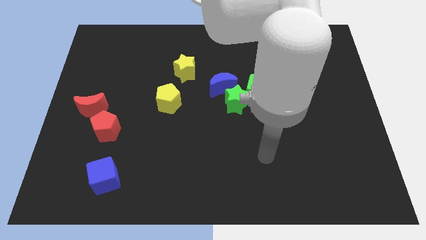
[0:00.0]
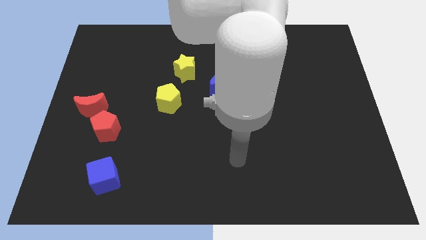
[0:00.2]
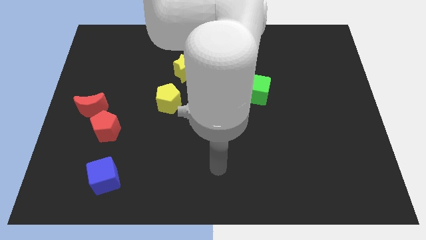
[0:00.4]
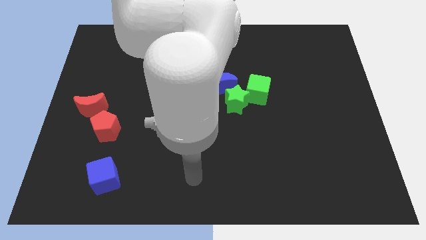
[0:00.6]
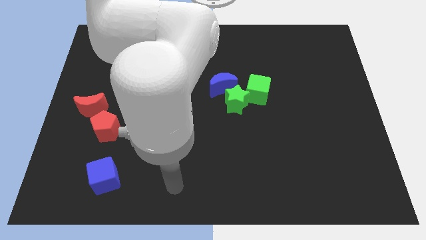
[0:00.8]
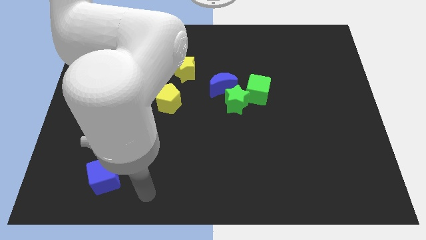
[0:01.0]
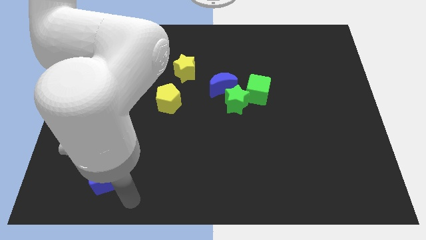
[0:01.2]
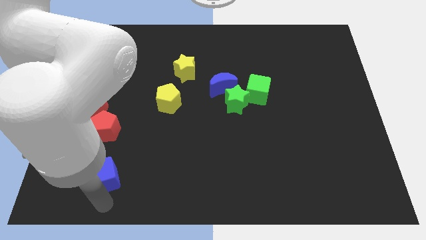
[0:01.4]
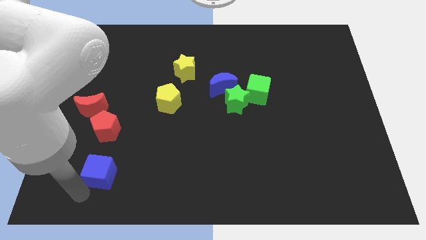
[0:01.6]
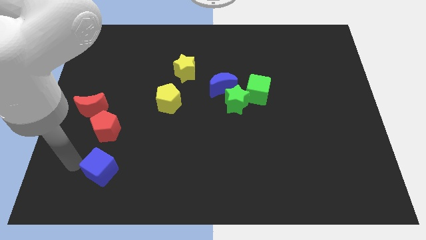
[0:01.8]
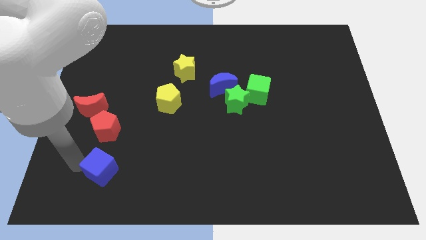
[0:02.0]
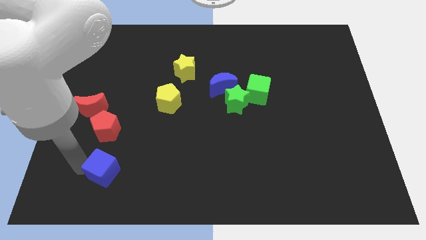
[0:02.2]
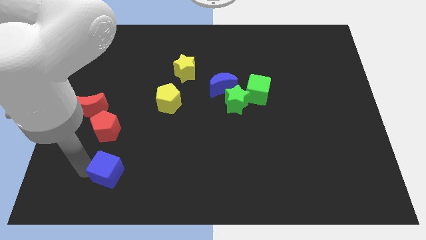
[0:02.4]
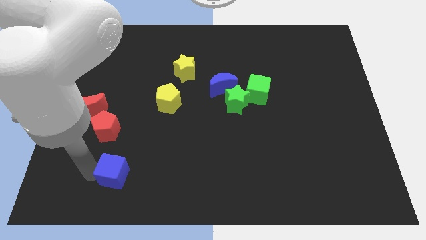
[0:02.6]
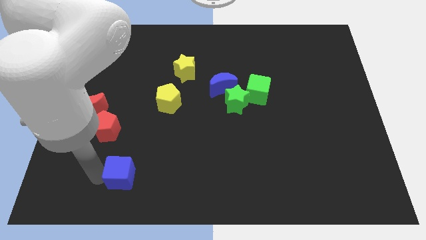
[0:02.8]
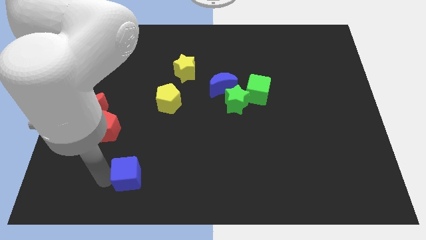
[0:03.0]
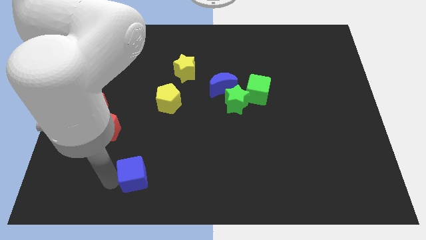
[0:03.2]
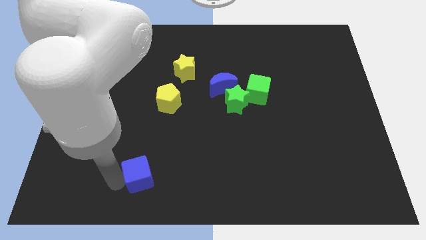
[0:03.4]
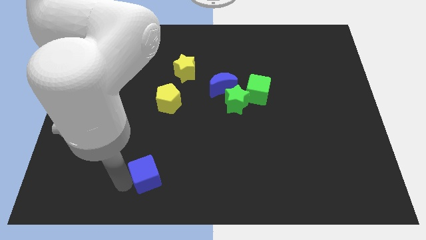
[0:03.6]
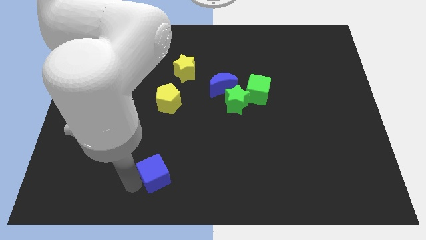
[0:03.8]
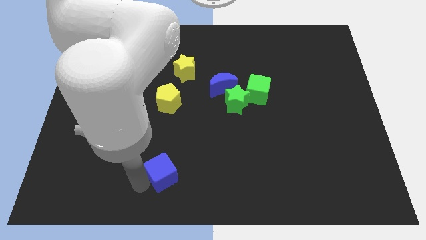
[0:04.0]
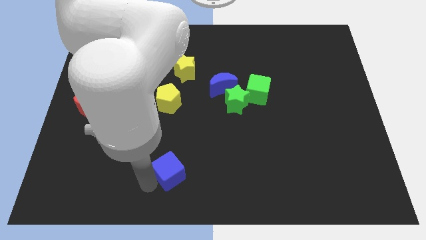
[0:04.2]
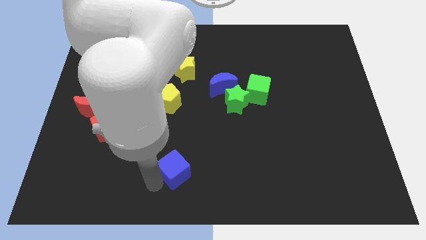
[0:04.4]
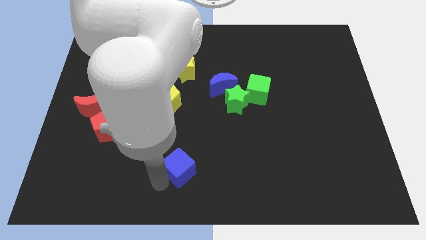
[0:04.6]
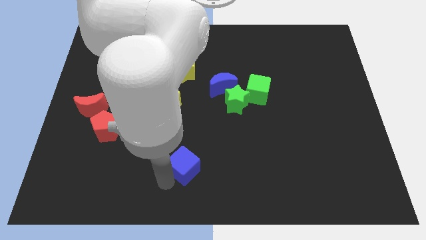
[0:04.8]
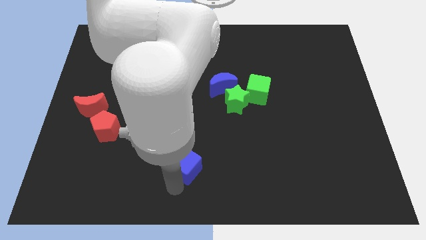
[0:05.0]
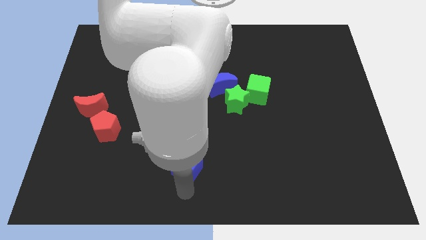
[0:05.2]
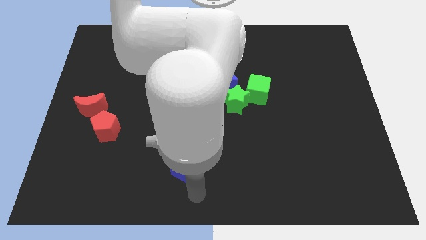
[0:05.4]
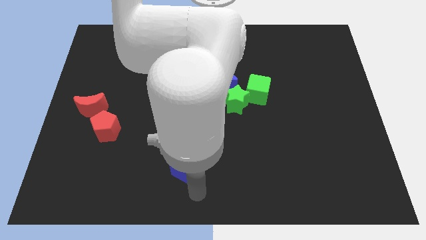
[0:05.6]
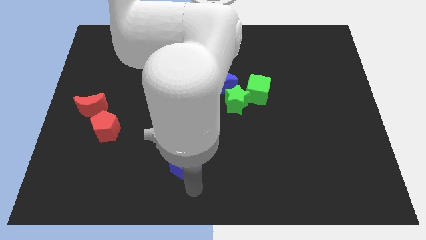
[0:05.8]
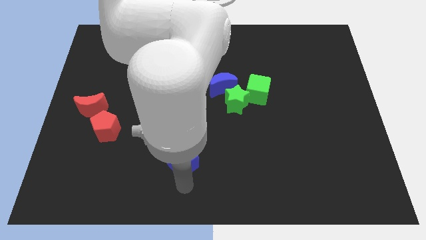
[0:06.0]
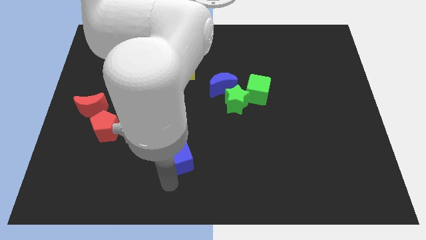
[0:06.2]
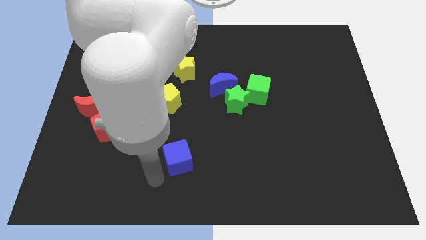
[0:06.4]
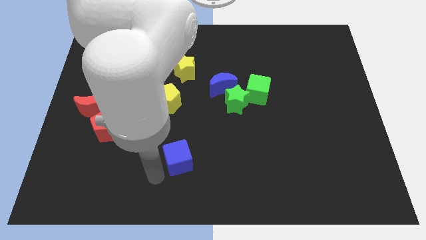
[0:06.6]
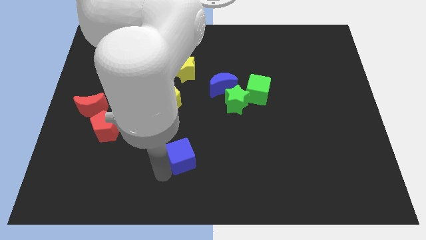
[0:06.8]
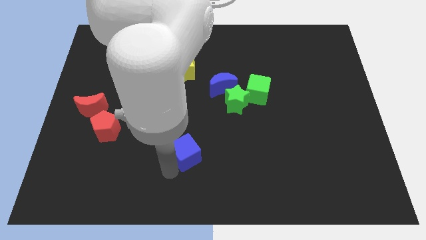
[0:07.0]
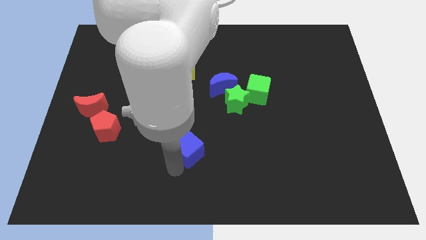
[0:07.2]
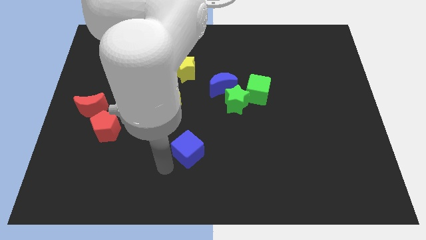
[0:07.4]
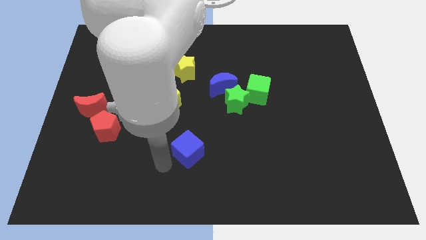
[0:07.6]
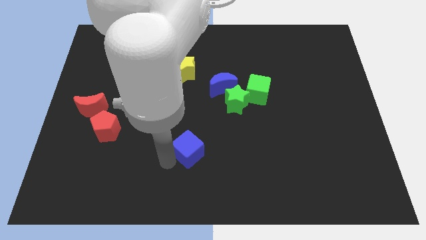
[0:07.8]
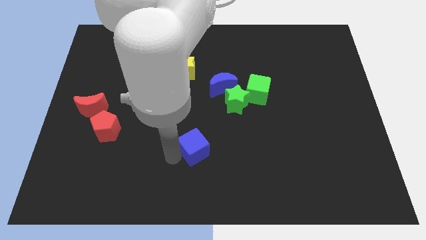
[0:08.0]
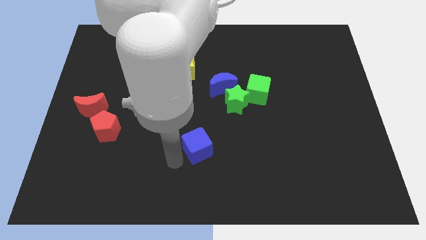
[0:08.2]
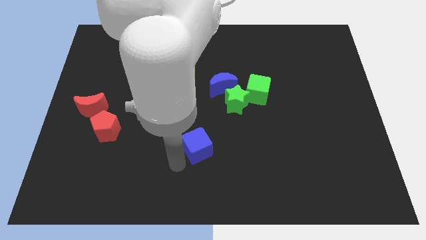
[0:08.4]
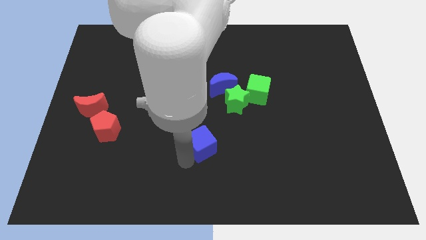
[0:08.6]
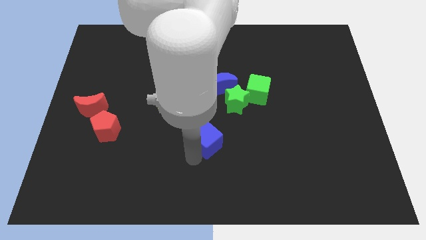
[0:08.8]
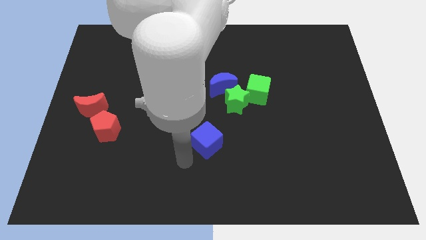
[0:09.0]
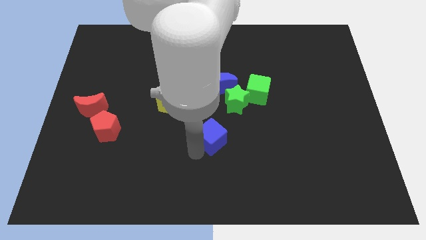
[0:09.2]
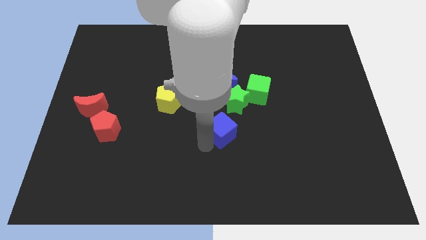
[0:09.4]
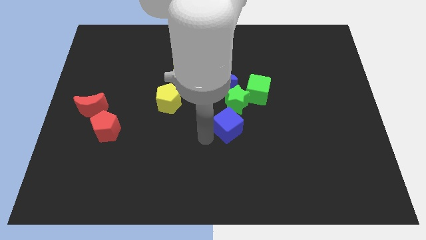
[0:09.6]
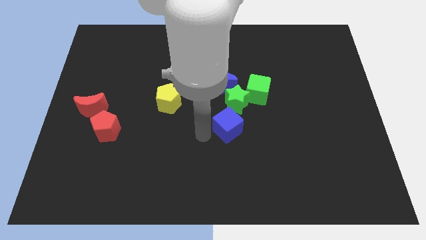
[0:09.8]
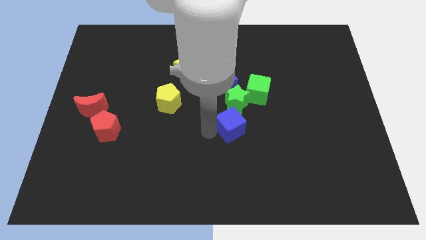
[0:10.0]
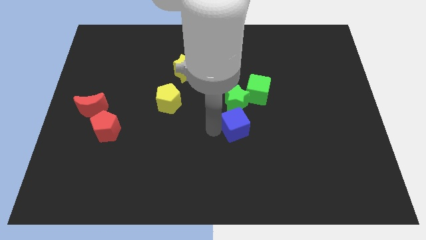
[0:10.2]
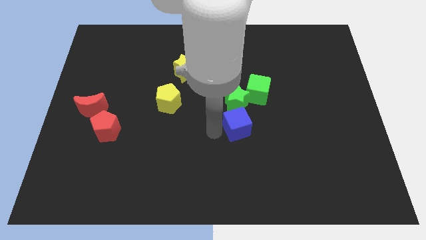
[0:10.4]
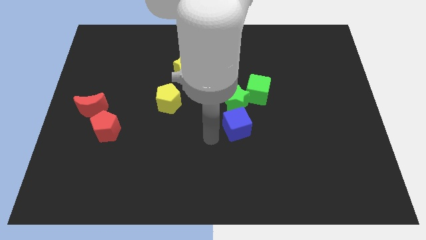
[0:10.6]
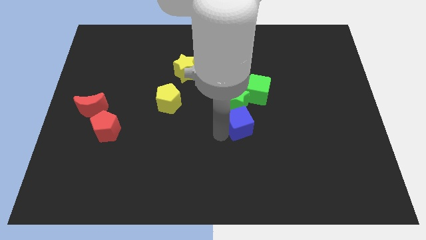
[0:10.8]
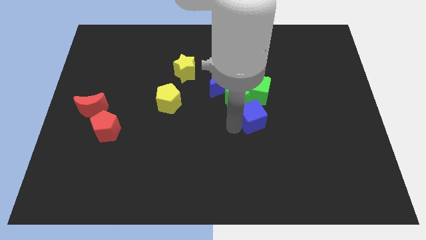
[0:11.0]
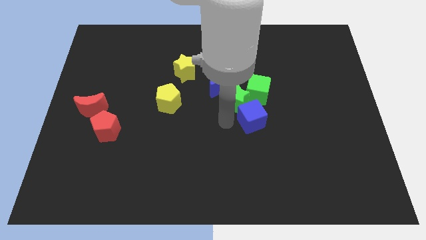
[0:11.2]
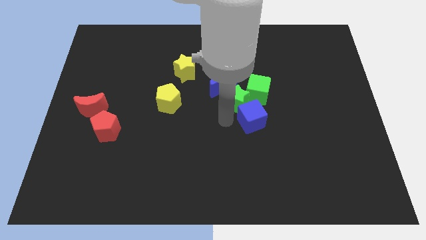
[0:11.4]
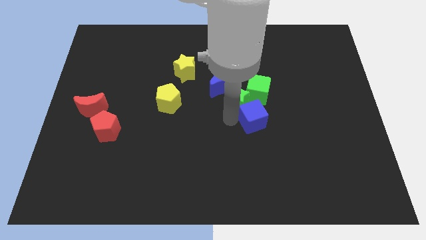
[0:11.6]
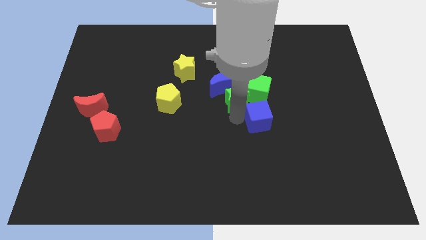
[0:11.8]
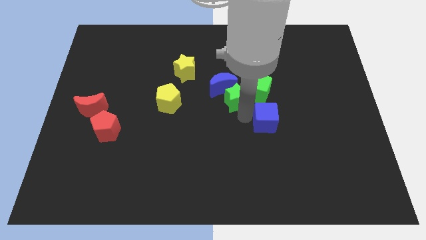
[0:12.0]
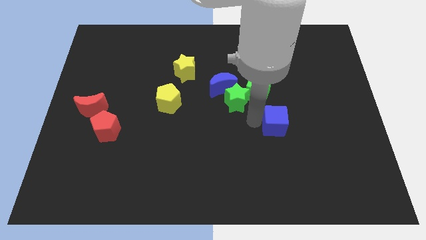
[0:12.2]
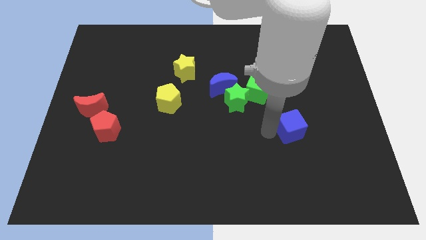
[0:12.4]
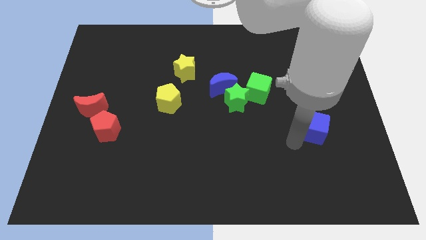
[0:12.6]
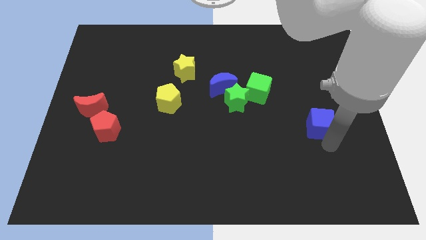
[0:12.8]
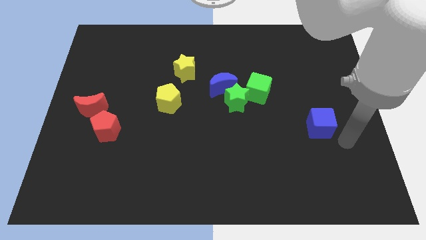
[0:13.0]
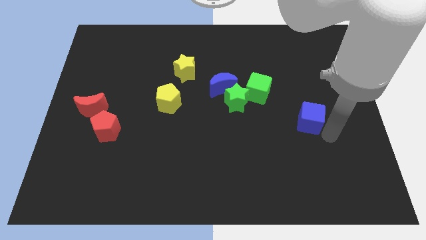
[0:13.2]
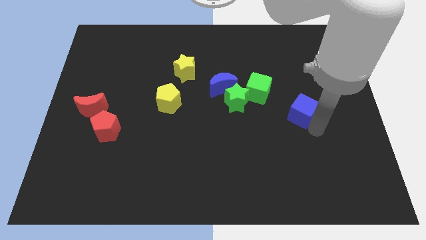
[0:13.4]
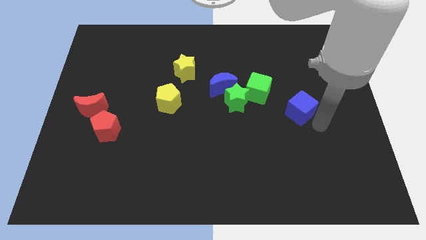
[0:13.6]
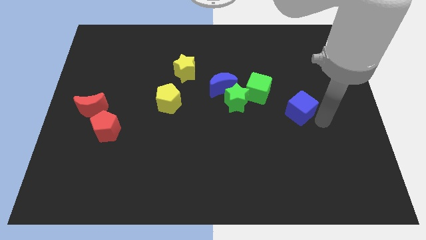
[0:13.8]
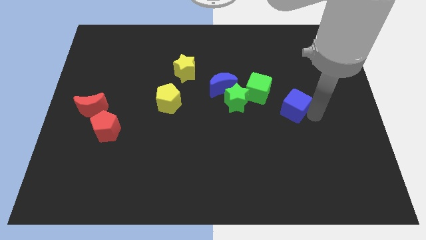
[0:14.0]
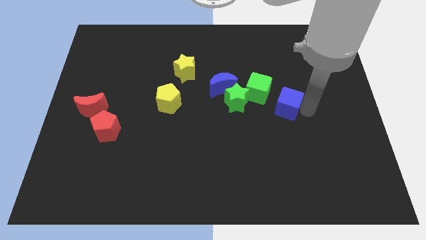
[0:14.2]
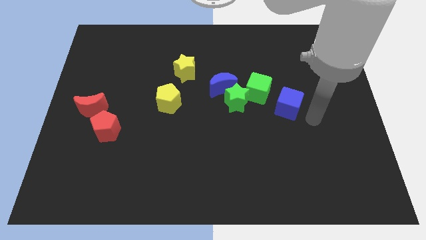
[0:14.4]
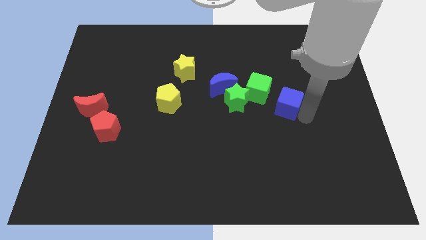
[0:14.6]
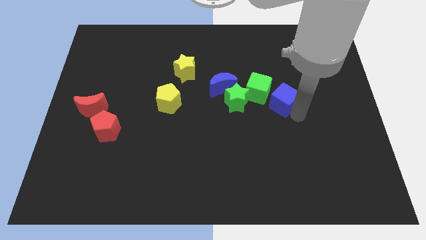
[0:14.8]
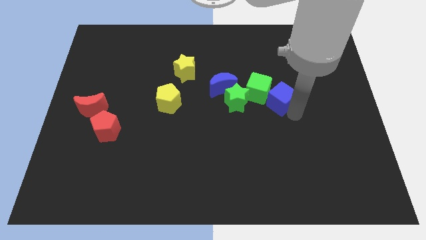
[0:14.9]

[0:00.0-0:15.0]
put the blue cube next to the green cube
